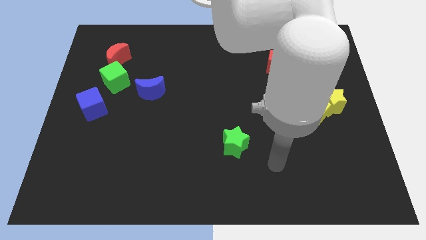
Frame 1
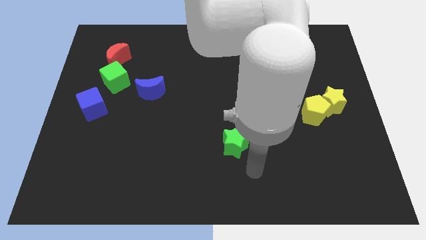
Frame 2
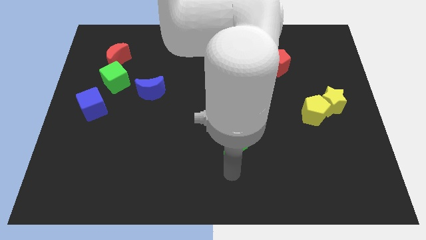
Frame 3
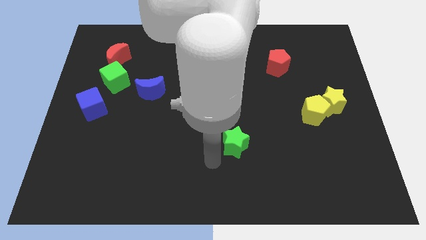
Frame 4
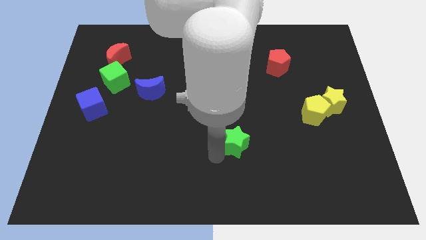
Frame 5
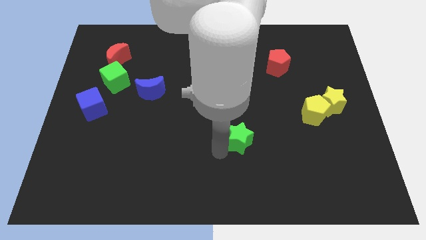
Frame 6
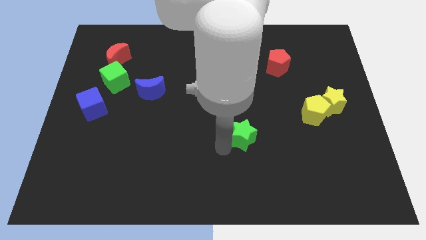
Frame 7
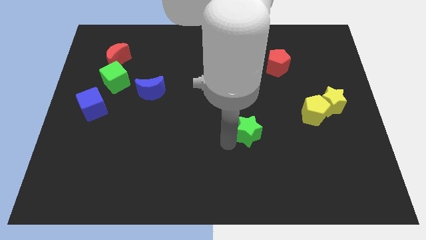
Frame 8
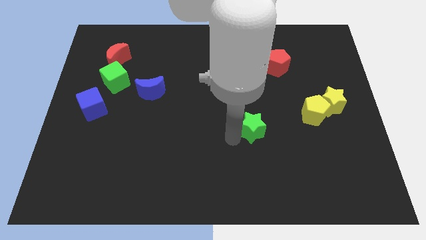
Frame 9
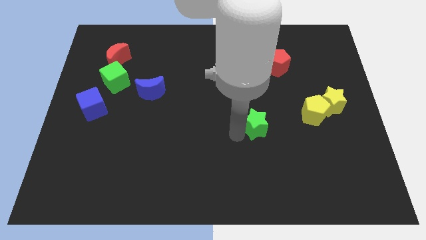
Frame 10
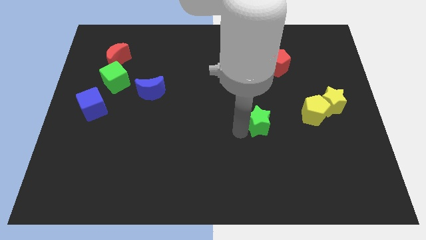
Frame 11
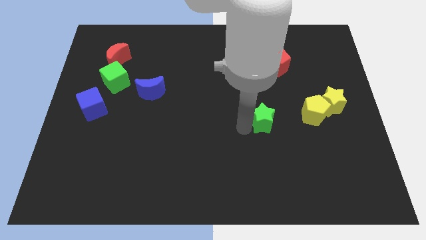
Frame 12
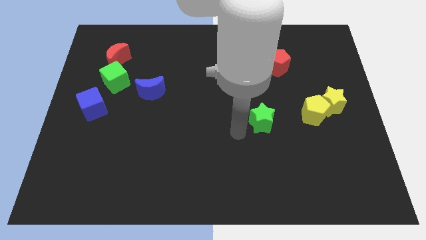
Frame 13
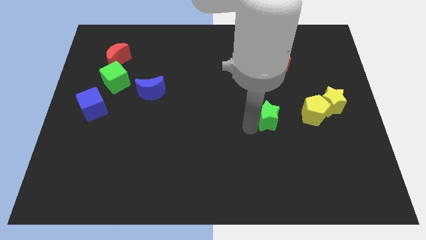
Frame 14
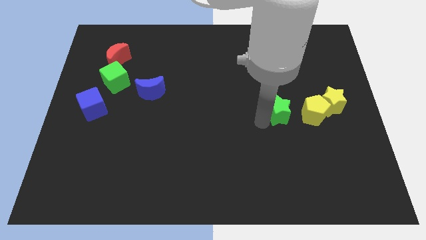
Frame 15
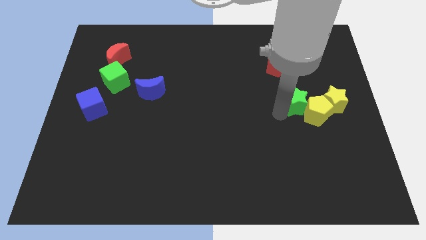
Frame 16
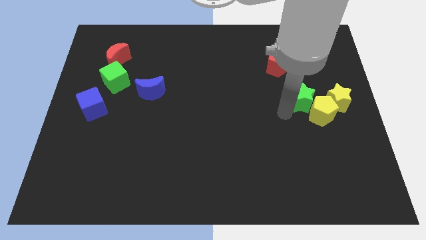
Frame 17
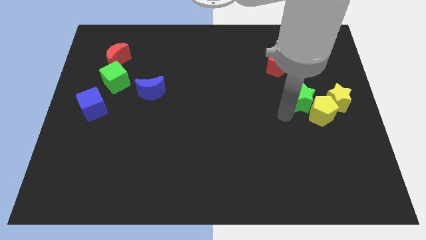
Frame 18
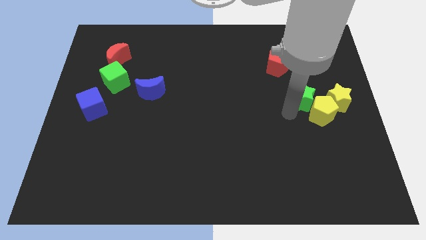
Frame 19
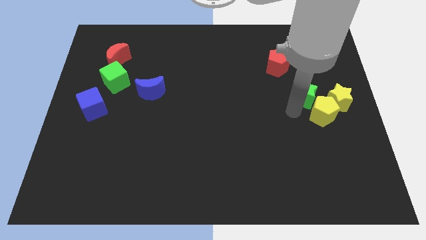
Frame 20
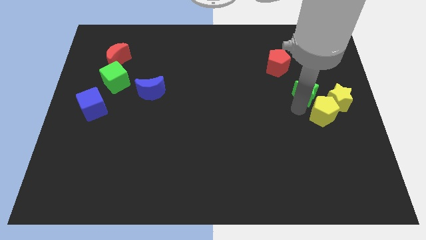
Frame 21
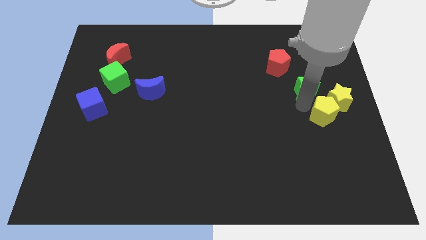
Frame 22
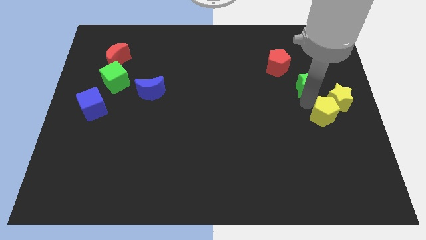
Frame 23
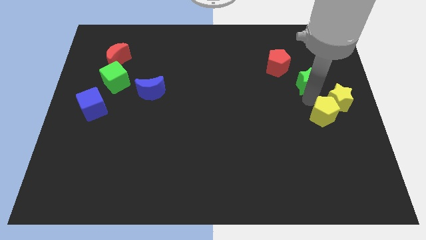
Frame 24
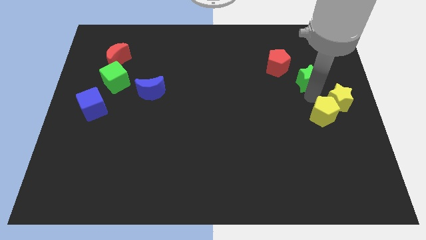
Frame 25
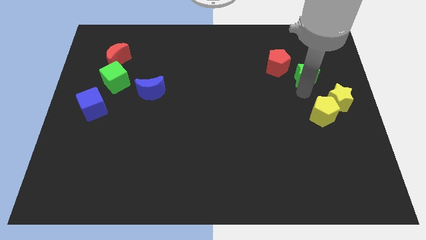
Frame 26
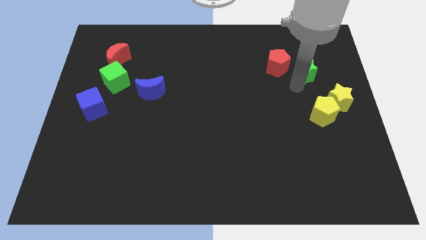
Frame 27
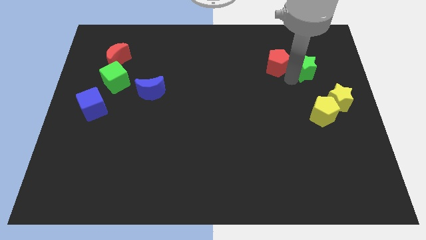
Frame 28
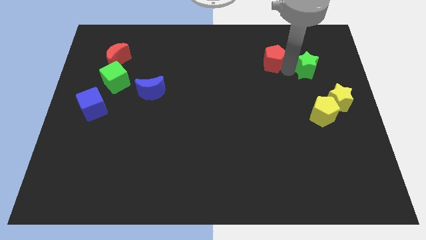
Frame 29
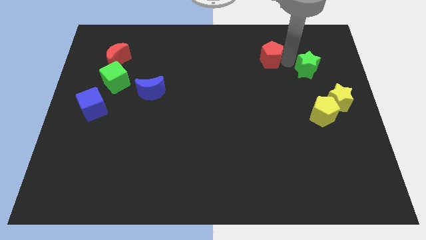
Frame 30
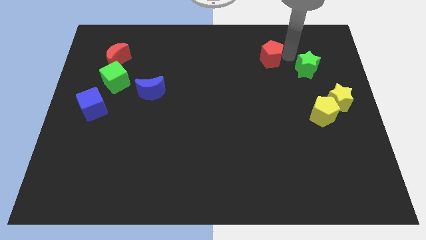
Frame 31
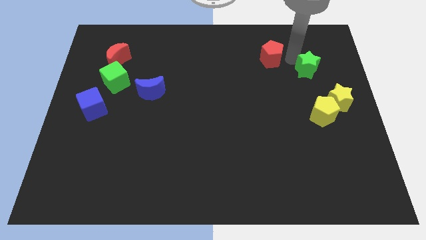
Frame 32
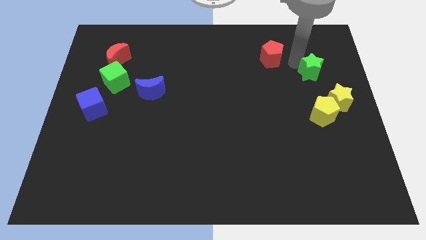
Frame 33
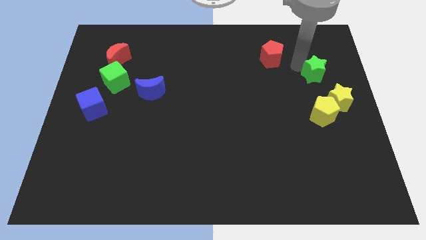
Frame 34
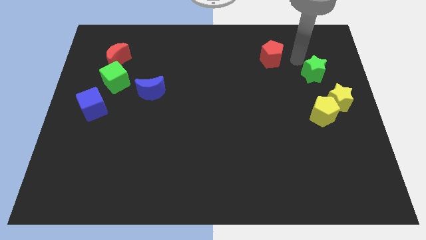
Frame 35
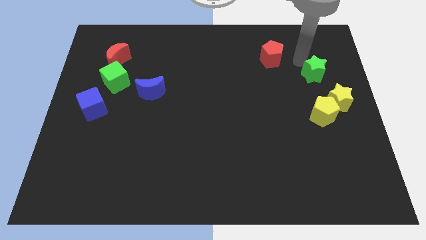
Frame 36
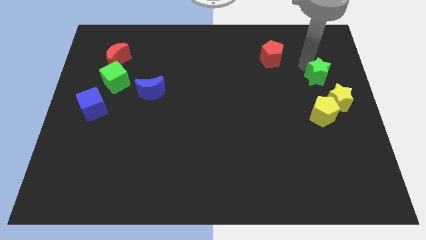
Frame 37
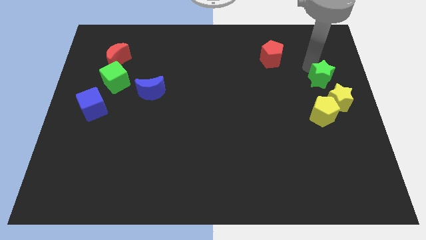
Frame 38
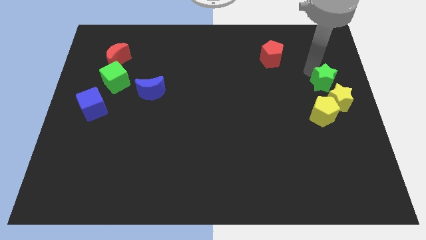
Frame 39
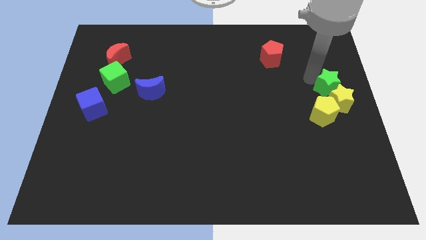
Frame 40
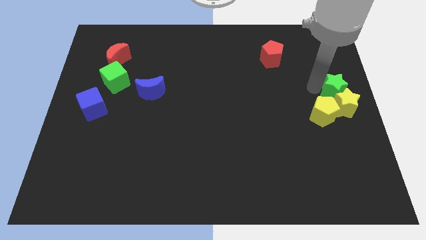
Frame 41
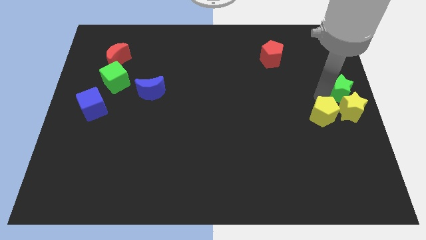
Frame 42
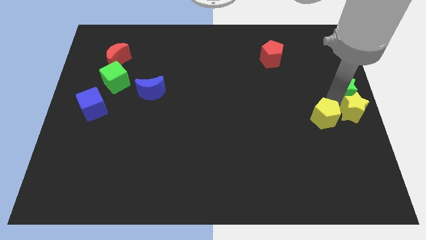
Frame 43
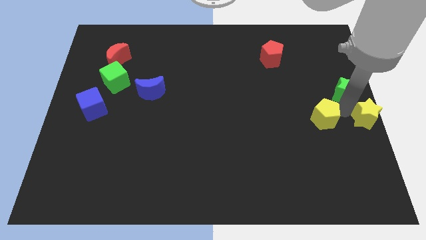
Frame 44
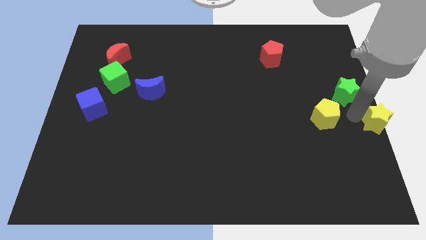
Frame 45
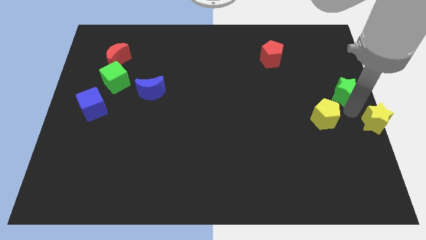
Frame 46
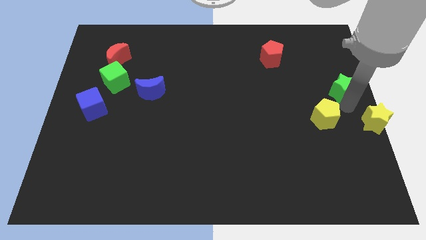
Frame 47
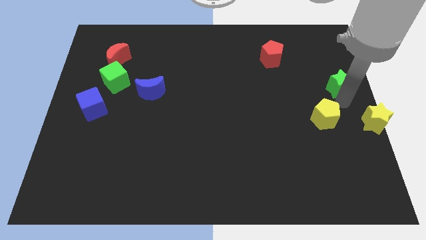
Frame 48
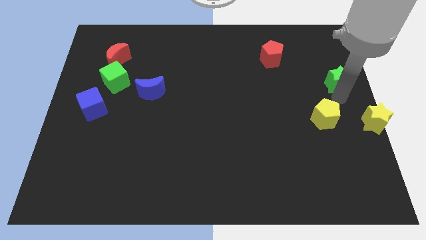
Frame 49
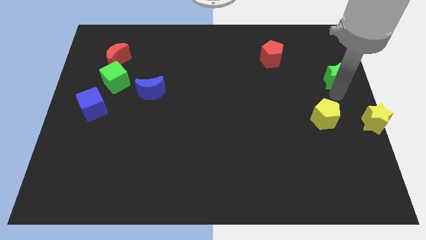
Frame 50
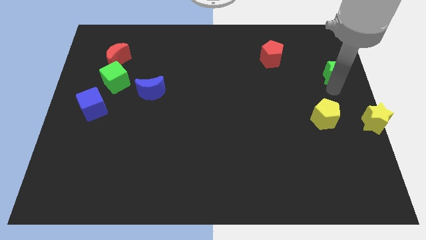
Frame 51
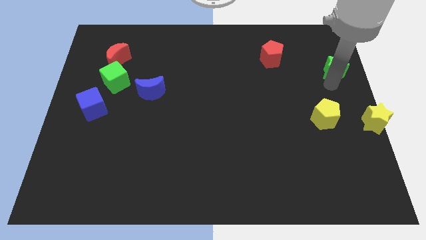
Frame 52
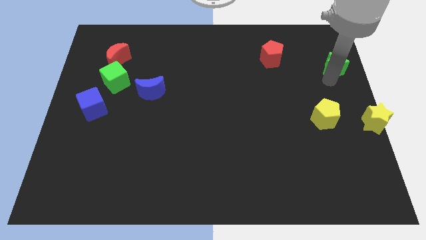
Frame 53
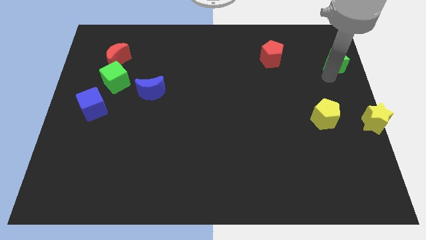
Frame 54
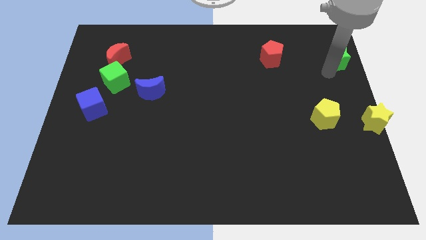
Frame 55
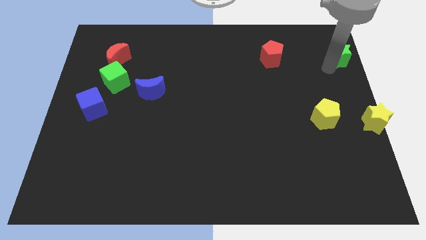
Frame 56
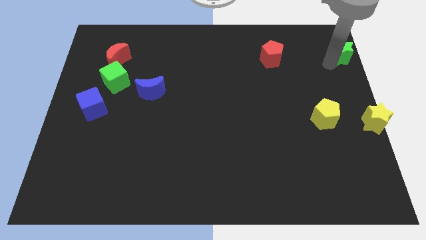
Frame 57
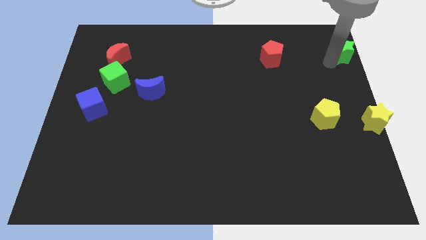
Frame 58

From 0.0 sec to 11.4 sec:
push the green star to the top right corner

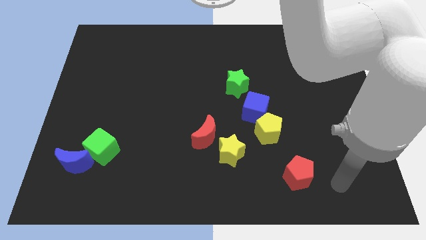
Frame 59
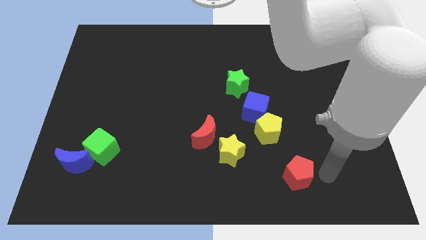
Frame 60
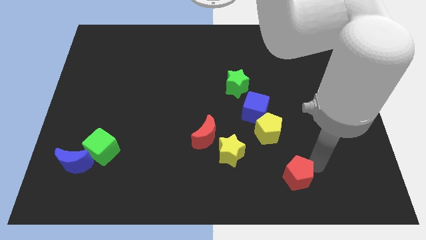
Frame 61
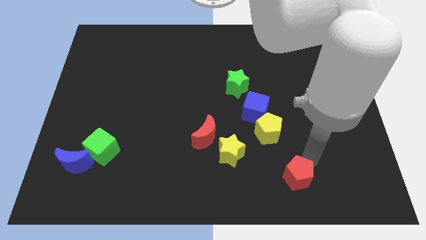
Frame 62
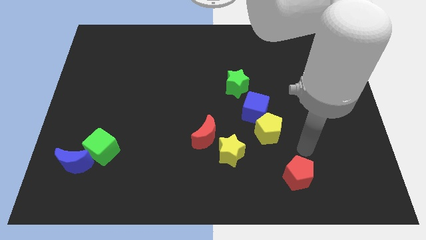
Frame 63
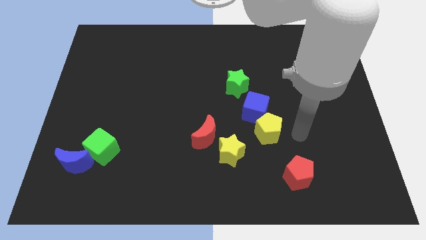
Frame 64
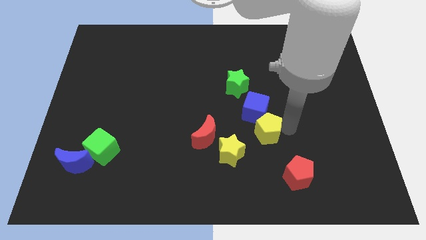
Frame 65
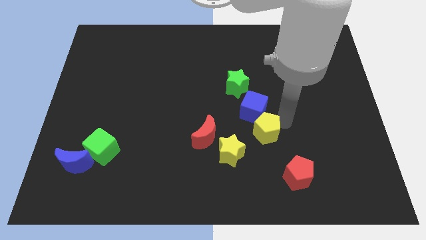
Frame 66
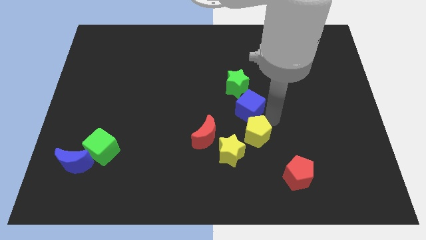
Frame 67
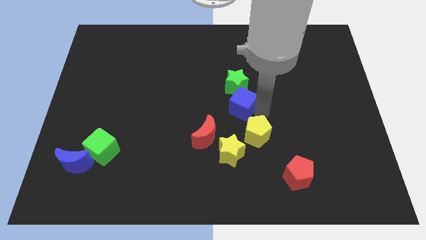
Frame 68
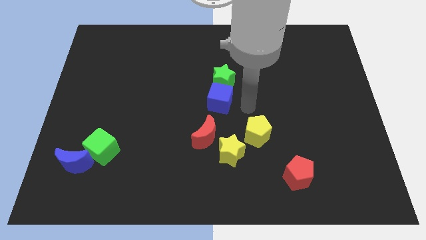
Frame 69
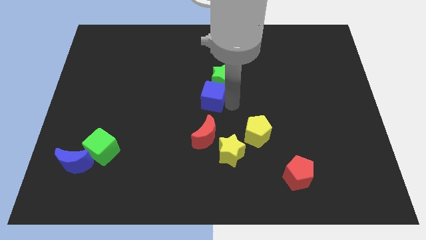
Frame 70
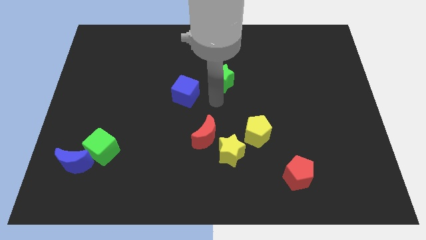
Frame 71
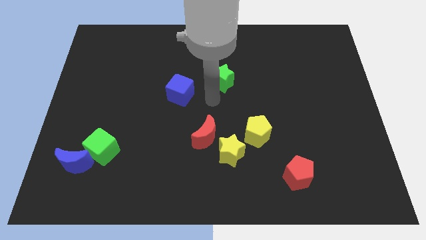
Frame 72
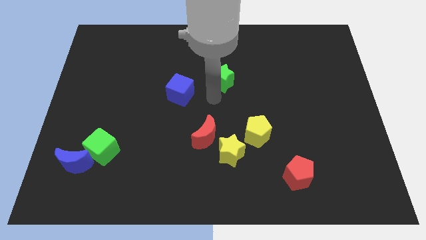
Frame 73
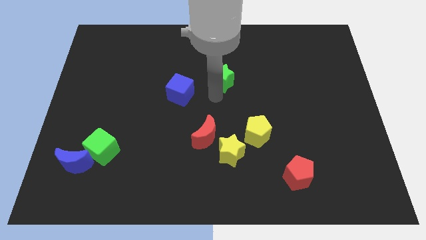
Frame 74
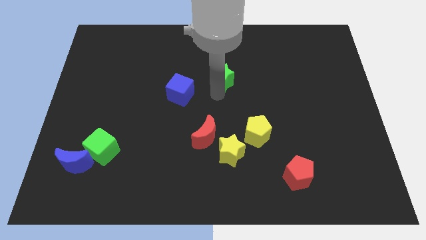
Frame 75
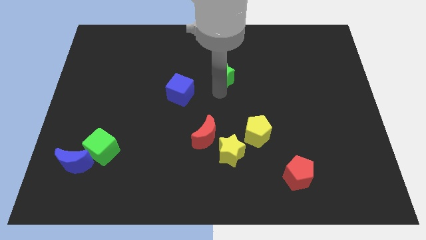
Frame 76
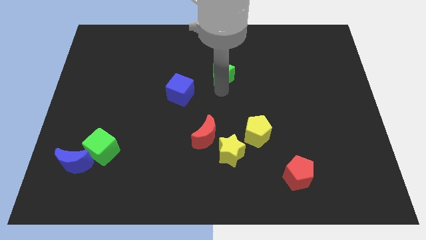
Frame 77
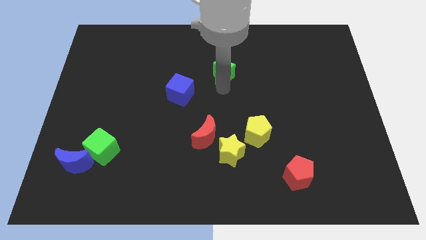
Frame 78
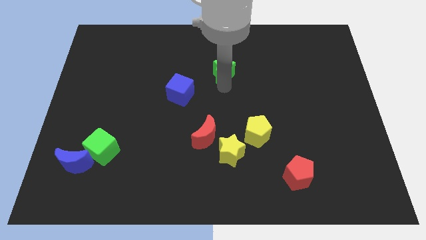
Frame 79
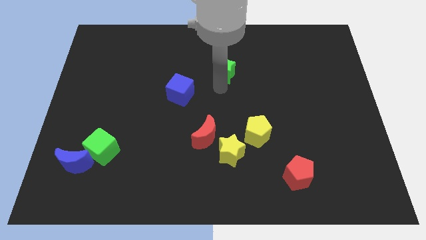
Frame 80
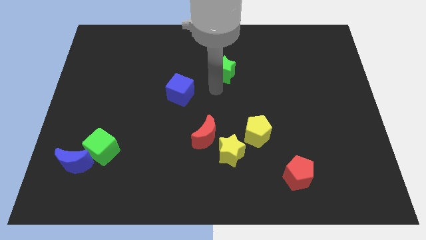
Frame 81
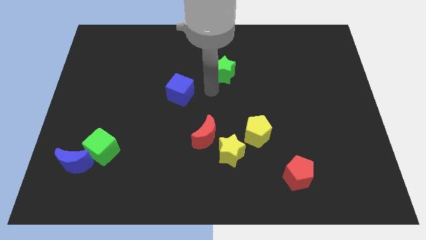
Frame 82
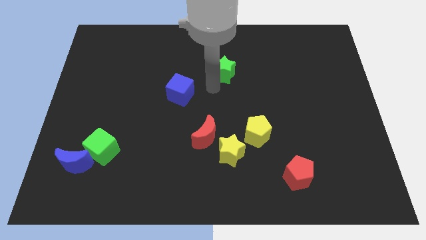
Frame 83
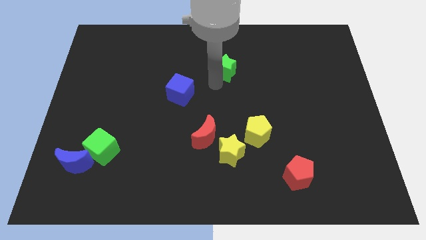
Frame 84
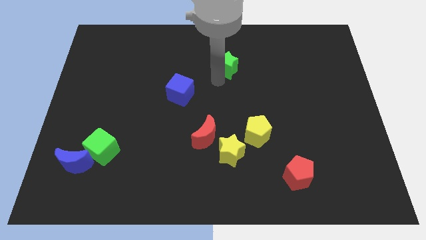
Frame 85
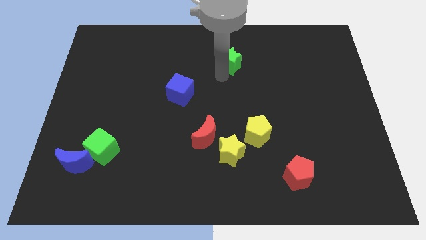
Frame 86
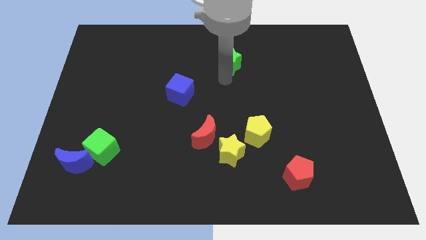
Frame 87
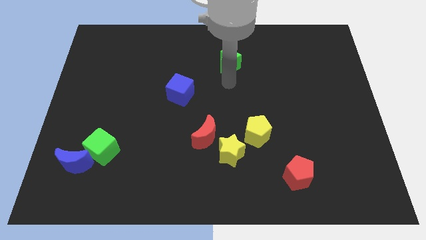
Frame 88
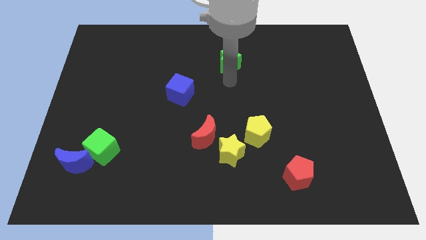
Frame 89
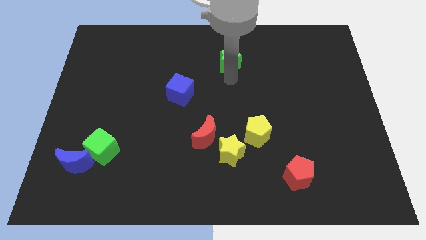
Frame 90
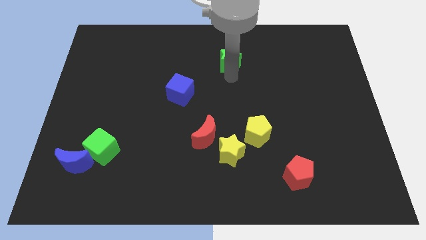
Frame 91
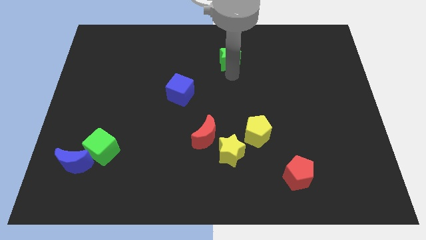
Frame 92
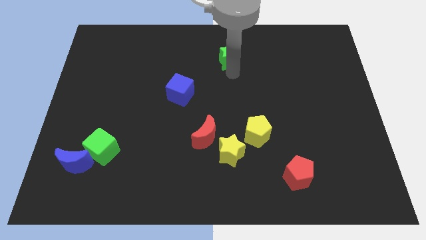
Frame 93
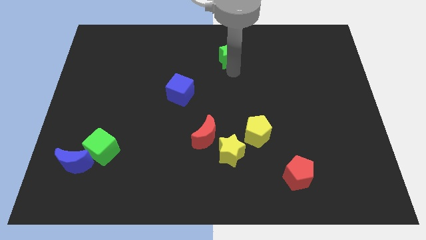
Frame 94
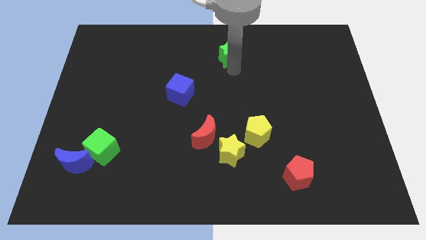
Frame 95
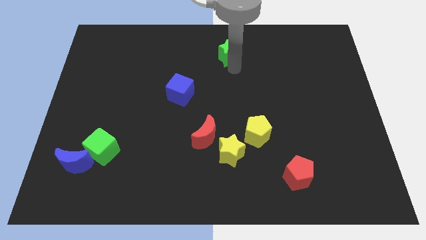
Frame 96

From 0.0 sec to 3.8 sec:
slide the green star to the top
